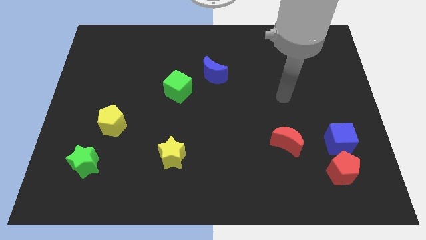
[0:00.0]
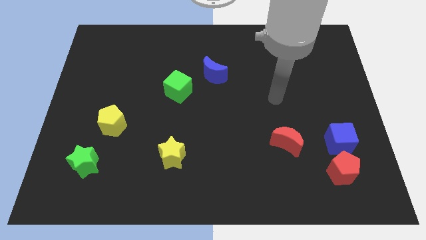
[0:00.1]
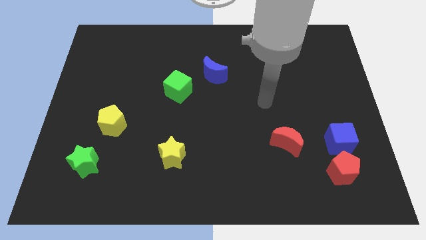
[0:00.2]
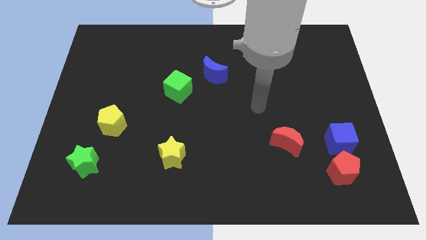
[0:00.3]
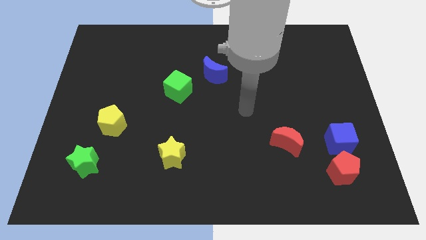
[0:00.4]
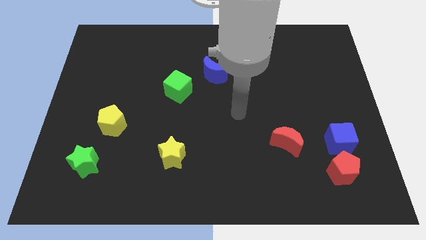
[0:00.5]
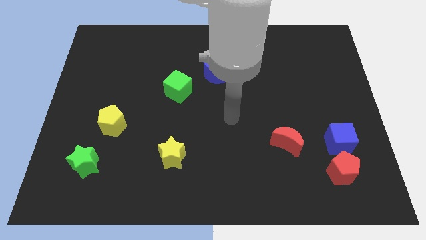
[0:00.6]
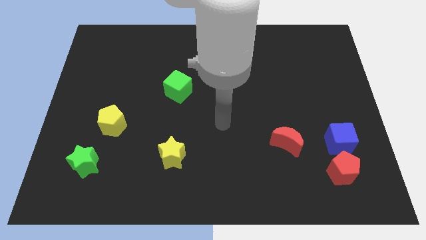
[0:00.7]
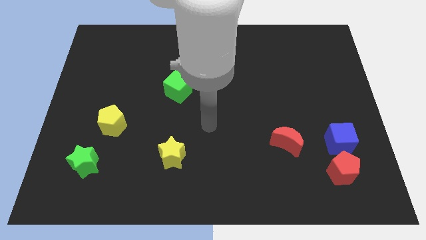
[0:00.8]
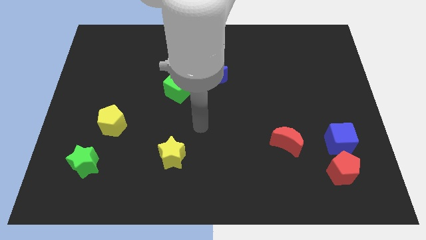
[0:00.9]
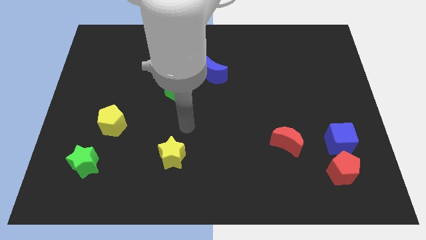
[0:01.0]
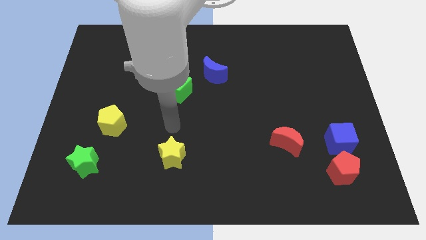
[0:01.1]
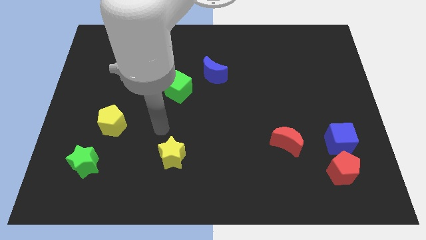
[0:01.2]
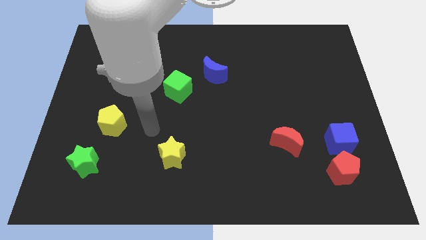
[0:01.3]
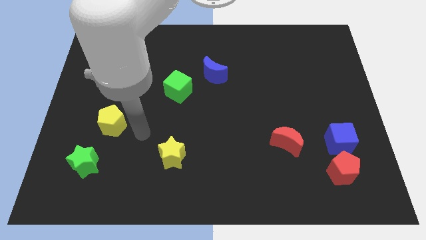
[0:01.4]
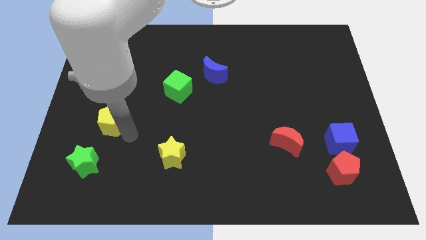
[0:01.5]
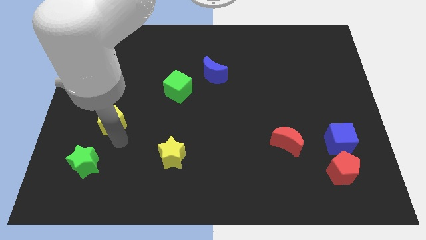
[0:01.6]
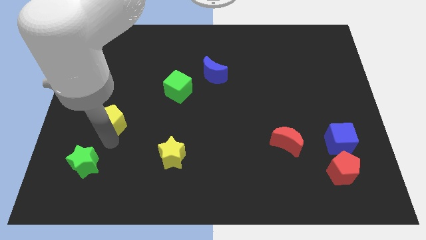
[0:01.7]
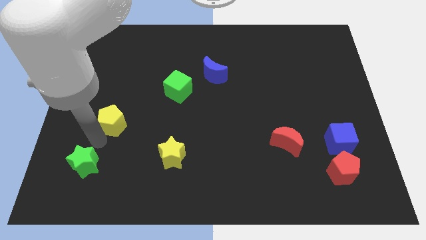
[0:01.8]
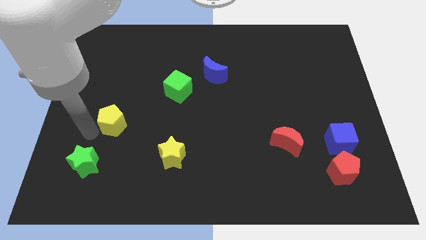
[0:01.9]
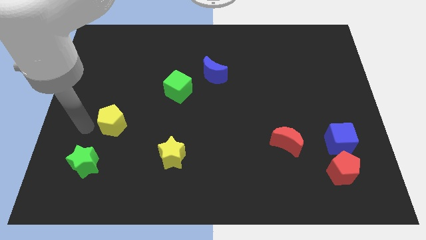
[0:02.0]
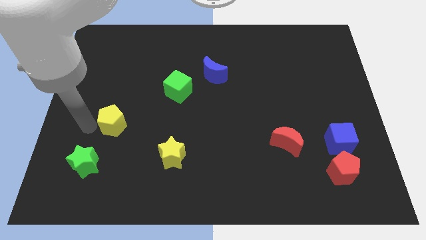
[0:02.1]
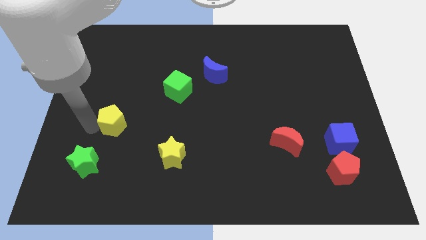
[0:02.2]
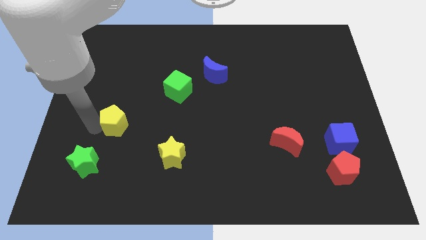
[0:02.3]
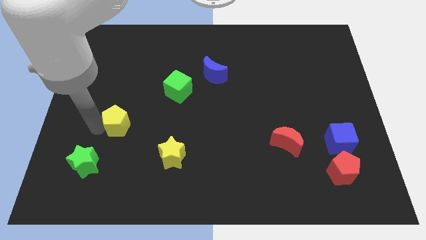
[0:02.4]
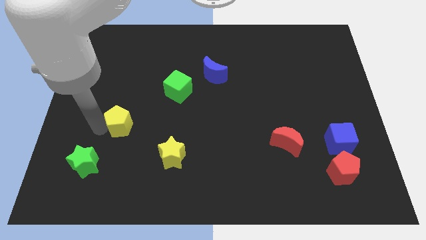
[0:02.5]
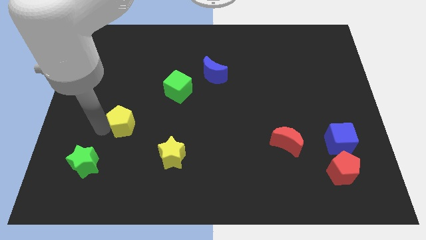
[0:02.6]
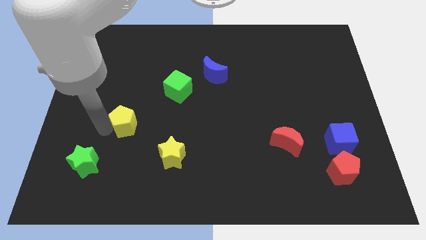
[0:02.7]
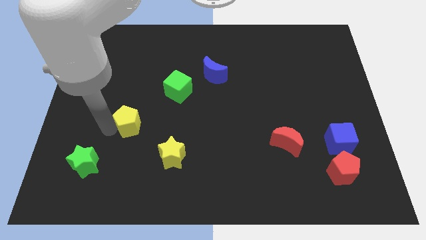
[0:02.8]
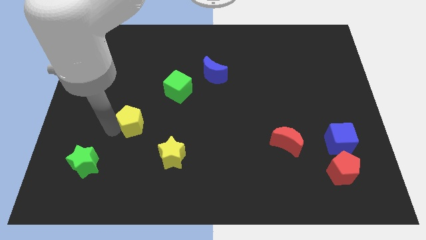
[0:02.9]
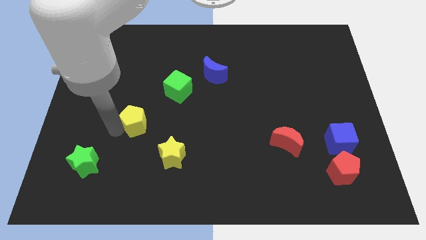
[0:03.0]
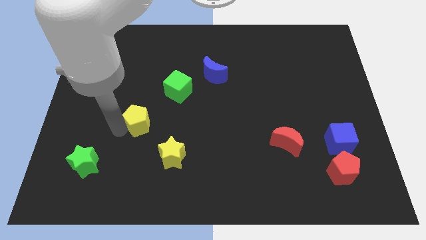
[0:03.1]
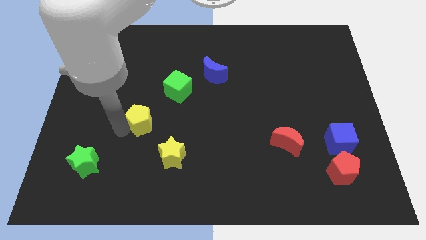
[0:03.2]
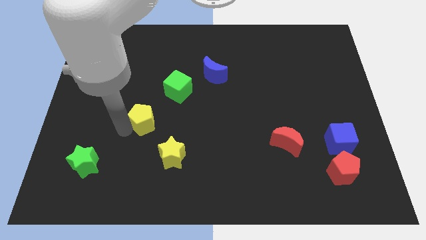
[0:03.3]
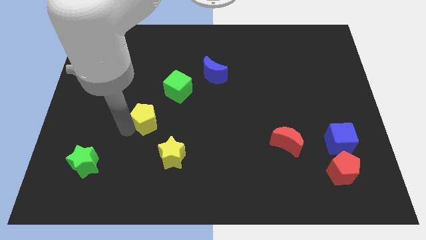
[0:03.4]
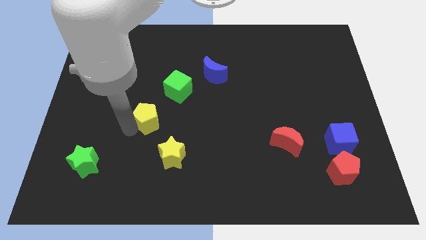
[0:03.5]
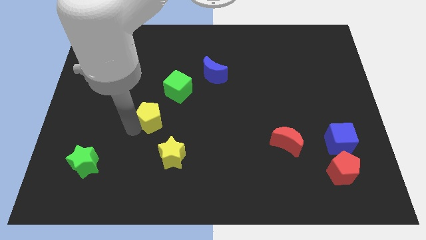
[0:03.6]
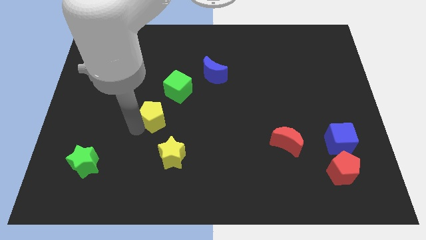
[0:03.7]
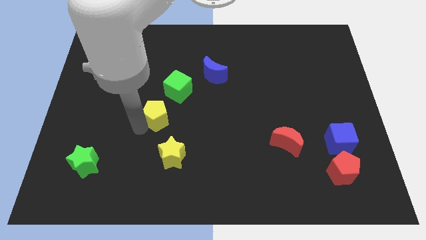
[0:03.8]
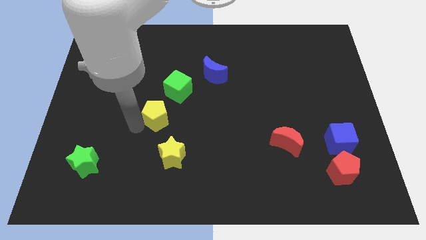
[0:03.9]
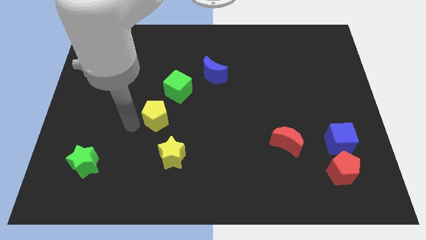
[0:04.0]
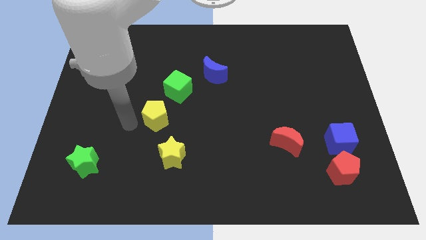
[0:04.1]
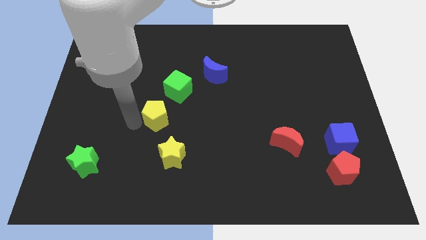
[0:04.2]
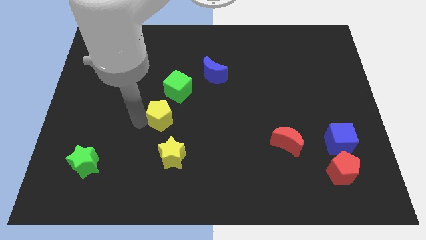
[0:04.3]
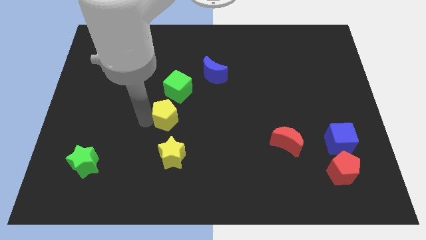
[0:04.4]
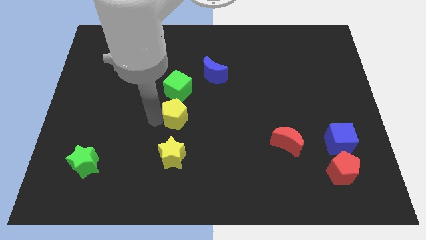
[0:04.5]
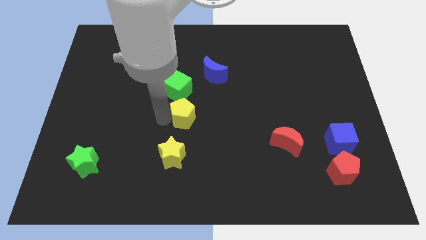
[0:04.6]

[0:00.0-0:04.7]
push the yellow pentagon to the bottom right of the green cube

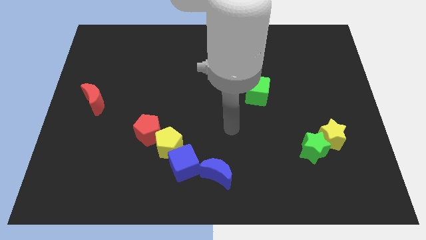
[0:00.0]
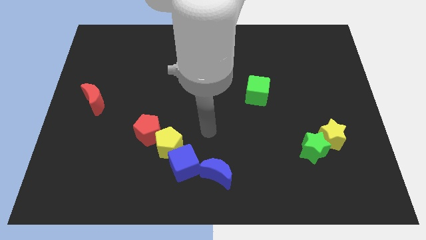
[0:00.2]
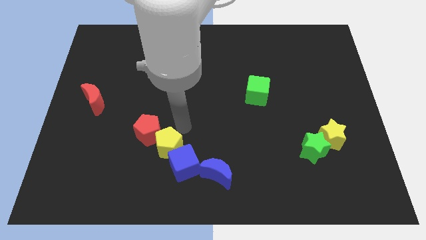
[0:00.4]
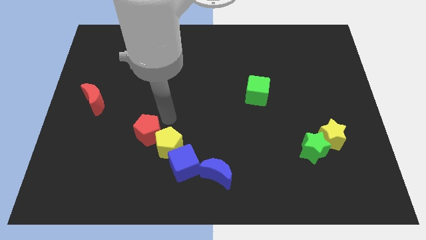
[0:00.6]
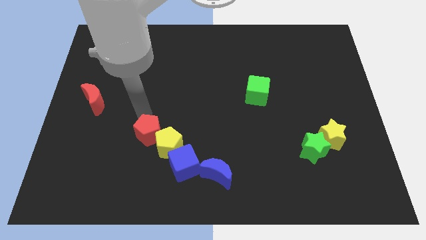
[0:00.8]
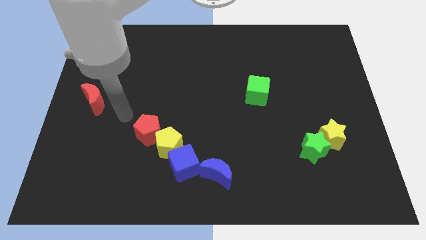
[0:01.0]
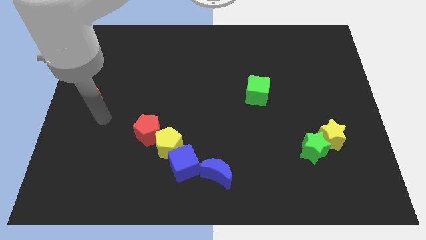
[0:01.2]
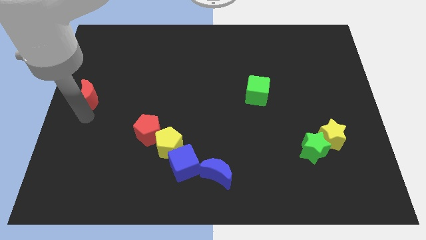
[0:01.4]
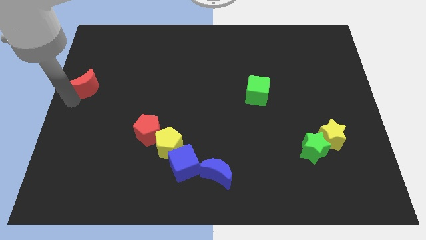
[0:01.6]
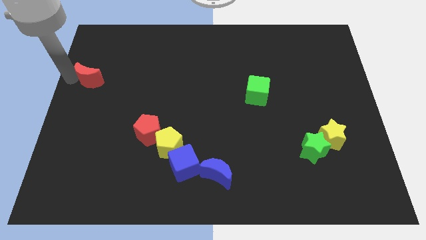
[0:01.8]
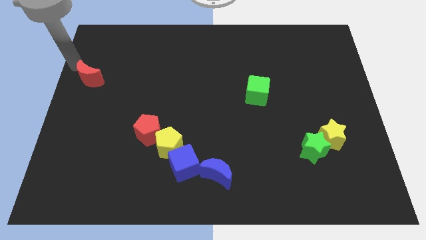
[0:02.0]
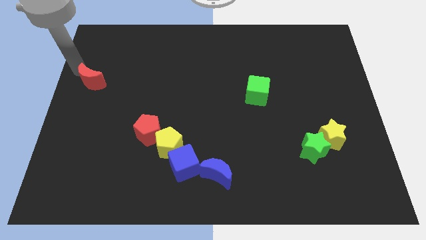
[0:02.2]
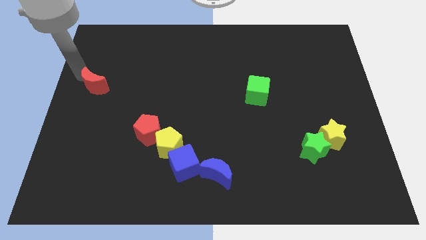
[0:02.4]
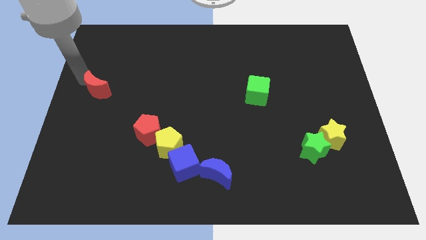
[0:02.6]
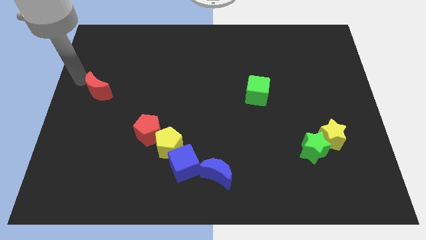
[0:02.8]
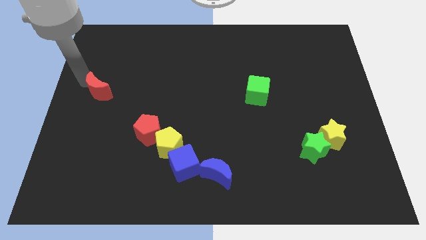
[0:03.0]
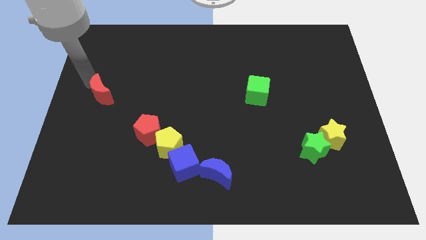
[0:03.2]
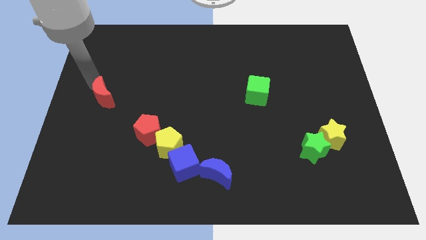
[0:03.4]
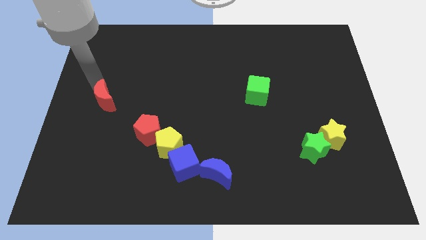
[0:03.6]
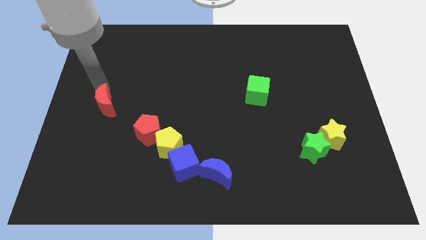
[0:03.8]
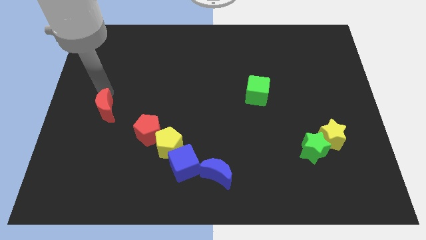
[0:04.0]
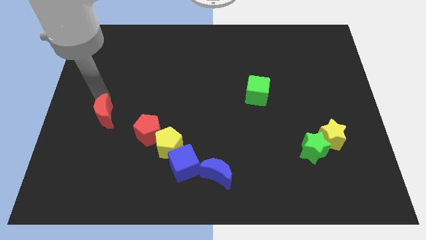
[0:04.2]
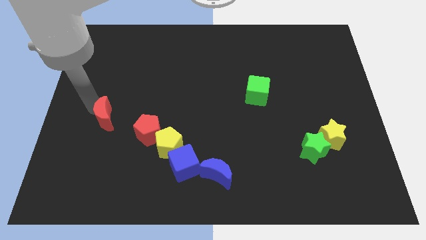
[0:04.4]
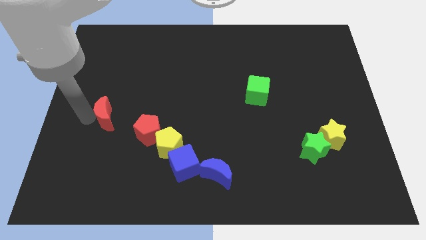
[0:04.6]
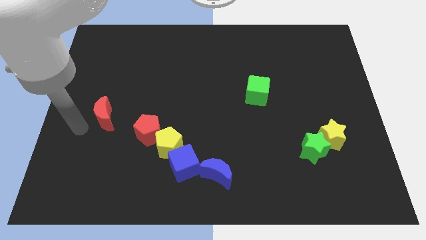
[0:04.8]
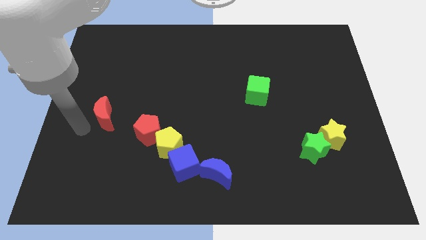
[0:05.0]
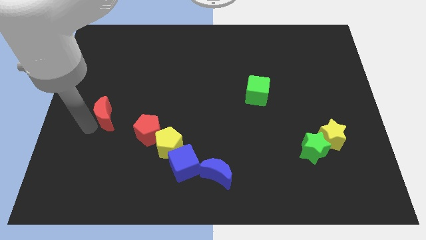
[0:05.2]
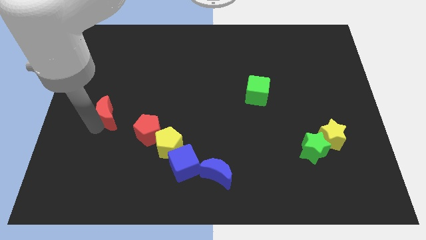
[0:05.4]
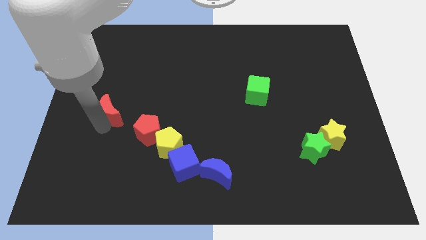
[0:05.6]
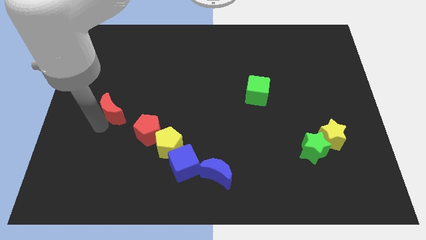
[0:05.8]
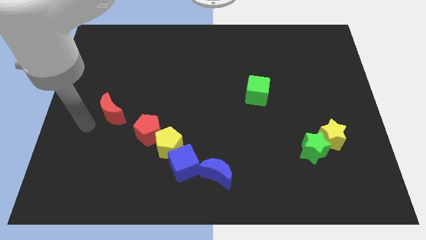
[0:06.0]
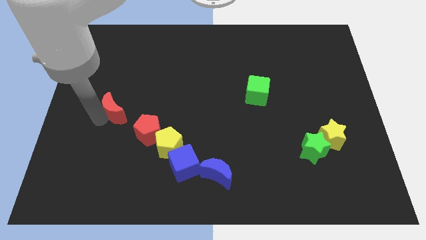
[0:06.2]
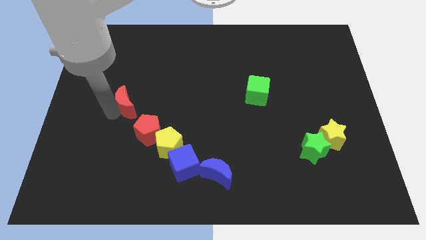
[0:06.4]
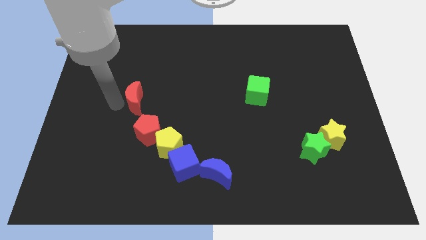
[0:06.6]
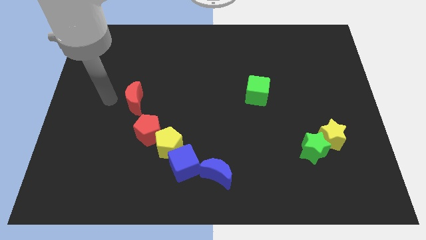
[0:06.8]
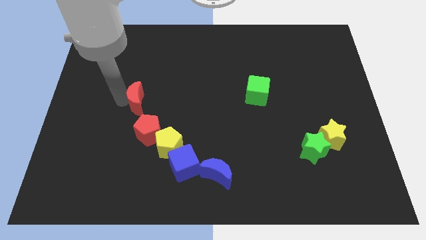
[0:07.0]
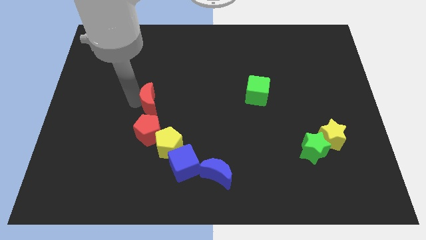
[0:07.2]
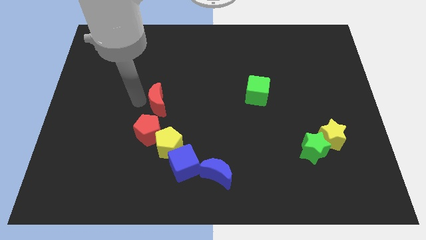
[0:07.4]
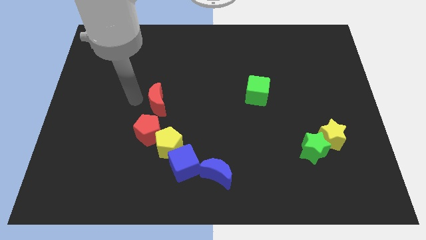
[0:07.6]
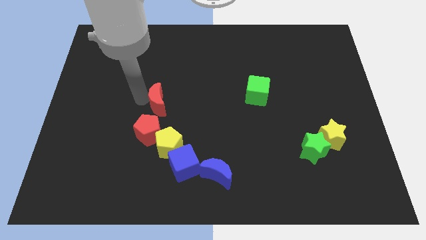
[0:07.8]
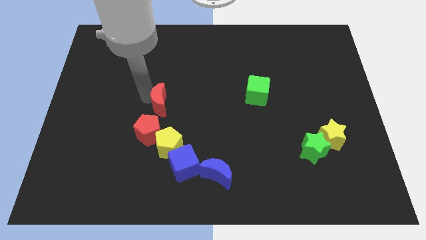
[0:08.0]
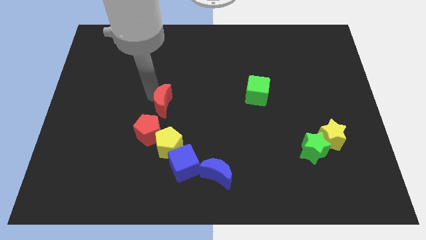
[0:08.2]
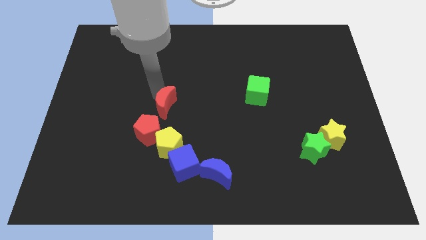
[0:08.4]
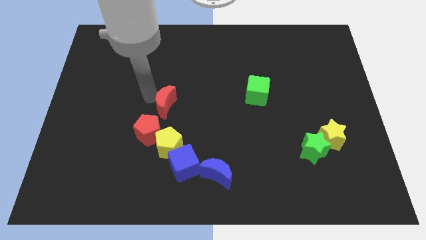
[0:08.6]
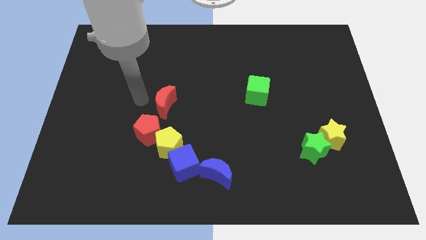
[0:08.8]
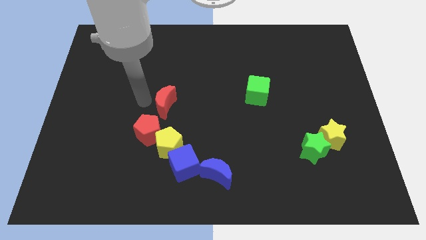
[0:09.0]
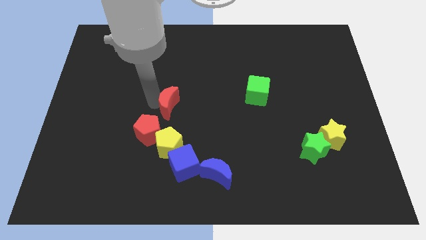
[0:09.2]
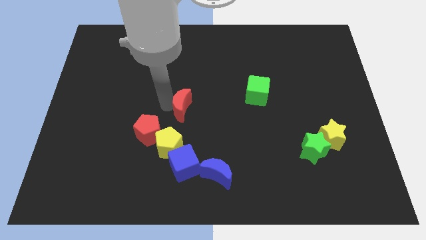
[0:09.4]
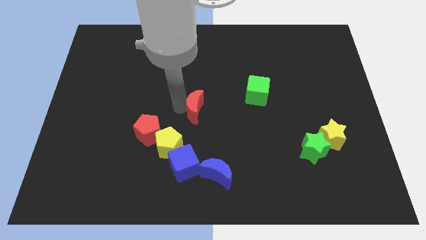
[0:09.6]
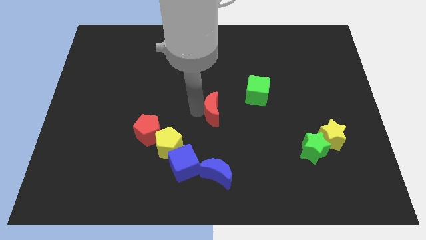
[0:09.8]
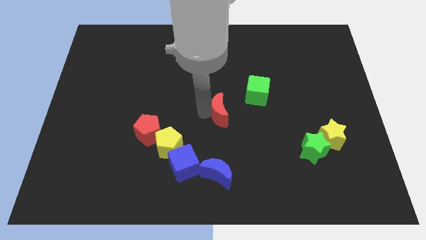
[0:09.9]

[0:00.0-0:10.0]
move the red moon to the bottom left of the green cube
